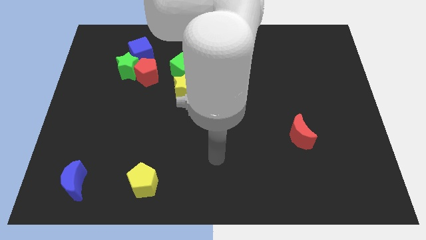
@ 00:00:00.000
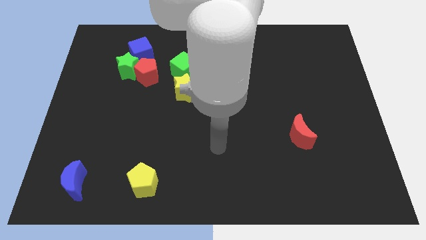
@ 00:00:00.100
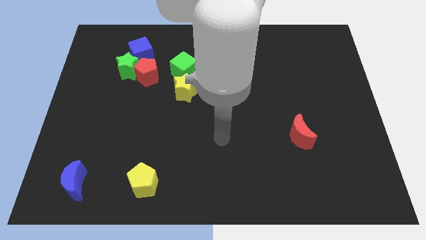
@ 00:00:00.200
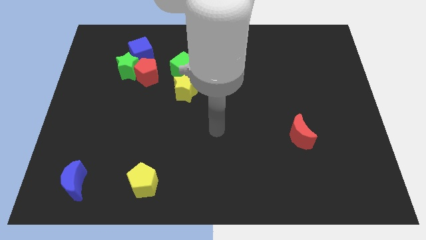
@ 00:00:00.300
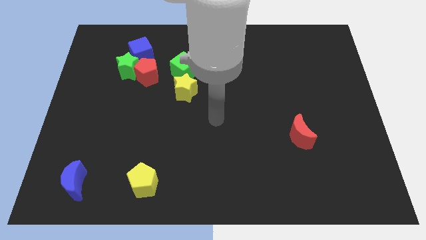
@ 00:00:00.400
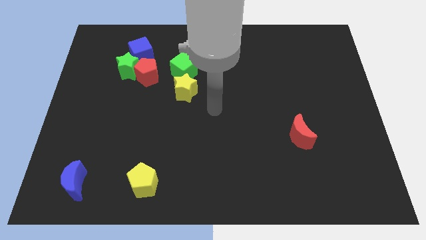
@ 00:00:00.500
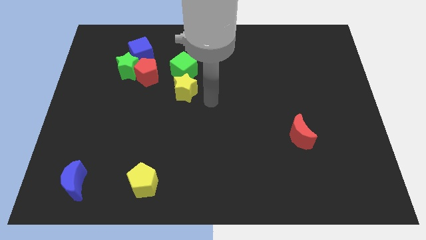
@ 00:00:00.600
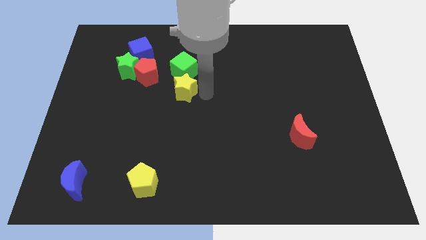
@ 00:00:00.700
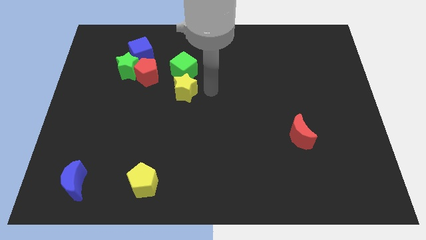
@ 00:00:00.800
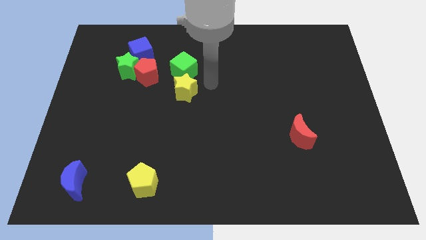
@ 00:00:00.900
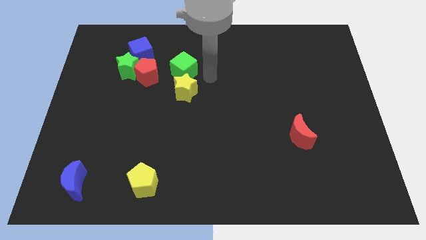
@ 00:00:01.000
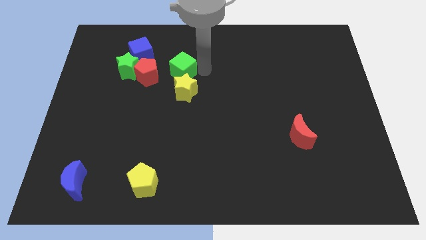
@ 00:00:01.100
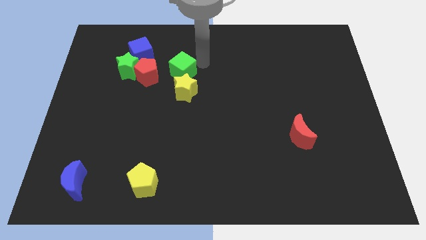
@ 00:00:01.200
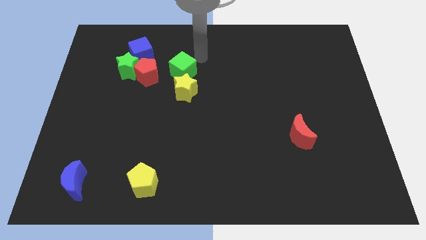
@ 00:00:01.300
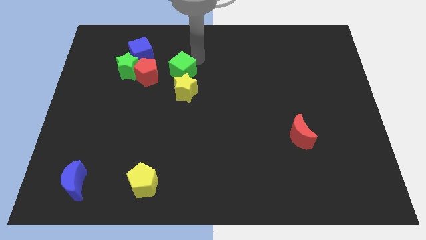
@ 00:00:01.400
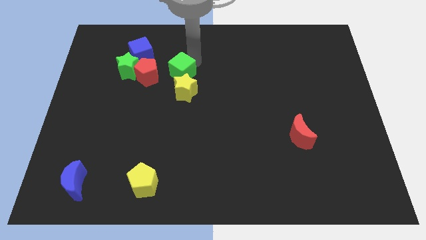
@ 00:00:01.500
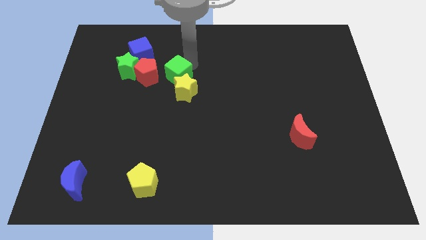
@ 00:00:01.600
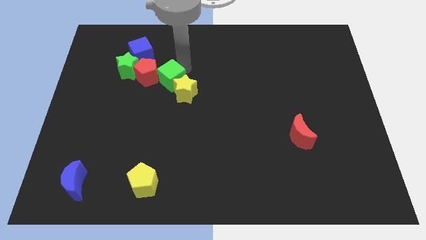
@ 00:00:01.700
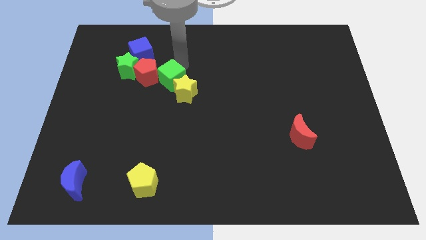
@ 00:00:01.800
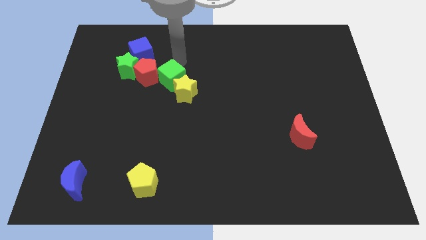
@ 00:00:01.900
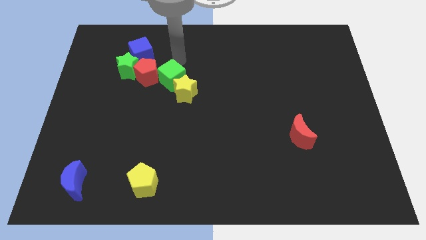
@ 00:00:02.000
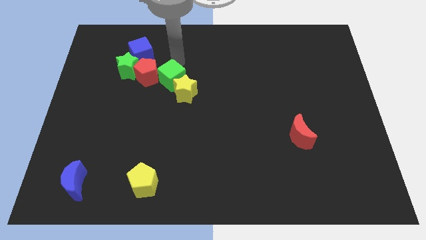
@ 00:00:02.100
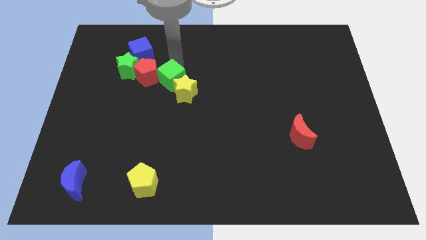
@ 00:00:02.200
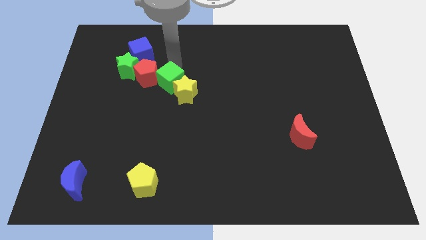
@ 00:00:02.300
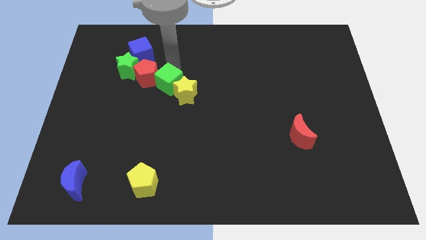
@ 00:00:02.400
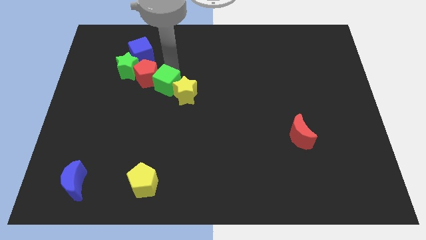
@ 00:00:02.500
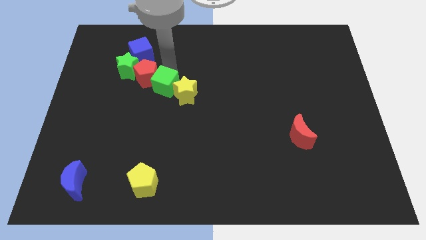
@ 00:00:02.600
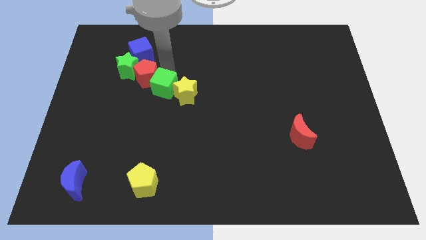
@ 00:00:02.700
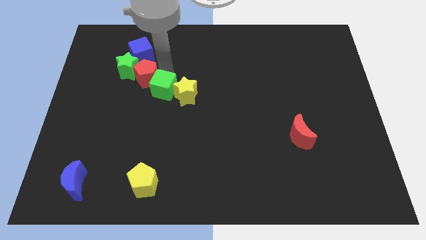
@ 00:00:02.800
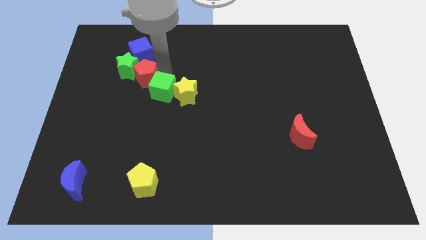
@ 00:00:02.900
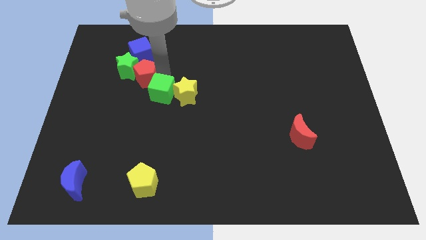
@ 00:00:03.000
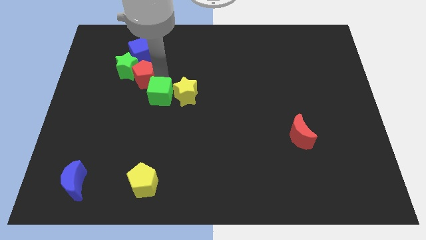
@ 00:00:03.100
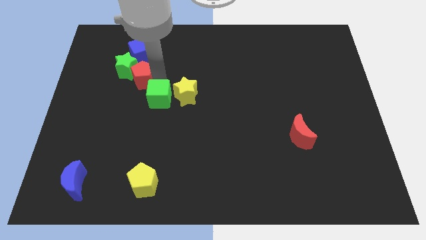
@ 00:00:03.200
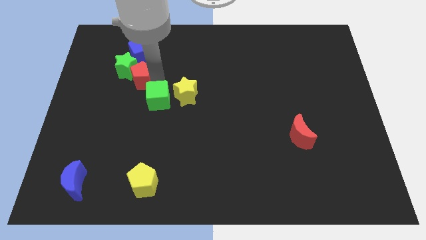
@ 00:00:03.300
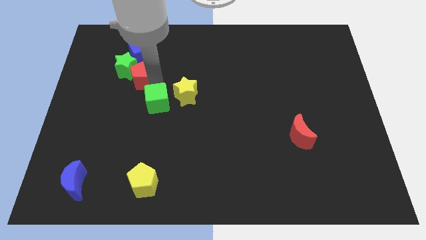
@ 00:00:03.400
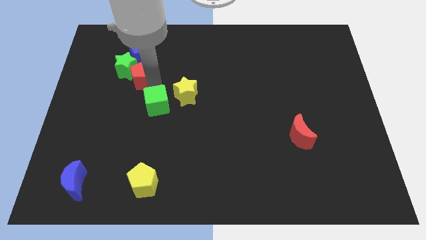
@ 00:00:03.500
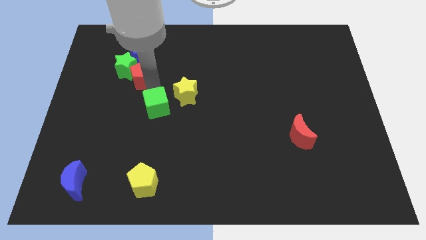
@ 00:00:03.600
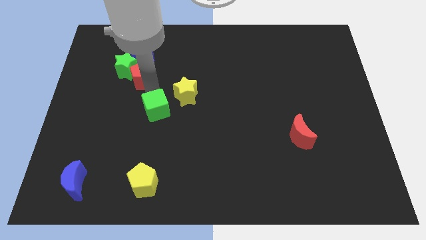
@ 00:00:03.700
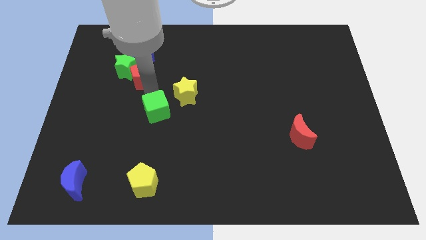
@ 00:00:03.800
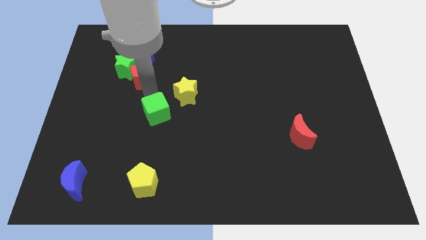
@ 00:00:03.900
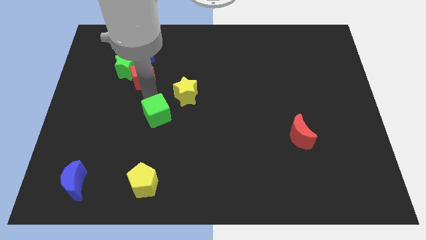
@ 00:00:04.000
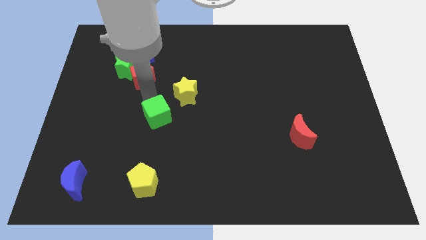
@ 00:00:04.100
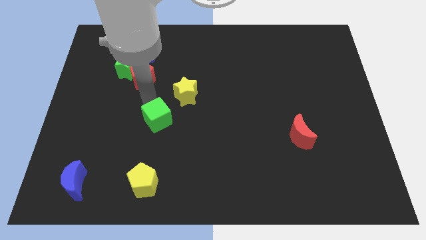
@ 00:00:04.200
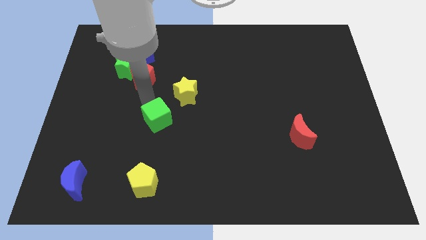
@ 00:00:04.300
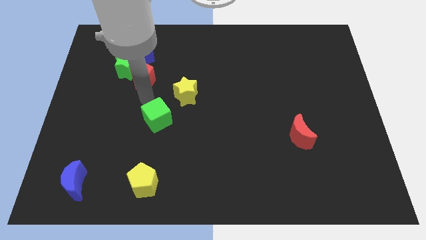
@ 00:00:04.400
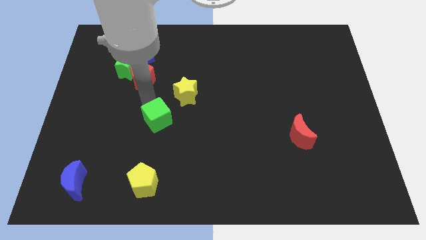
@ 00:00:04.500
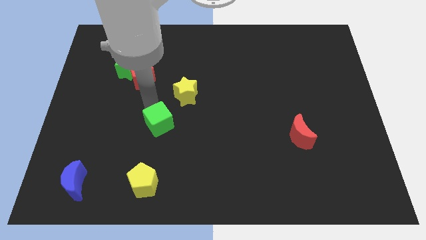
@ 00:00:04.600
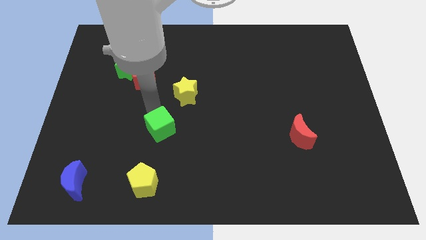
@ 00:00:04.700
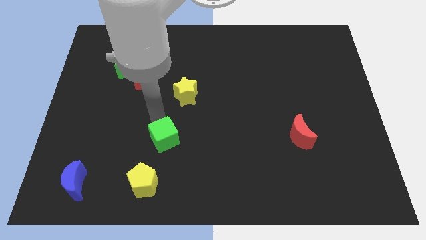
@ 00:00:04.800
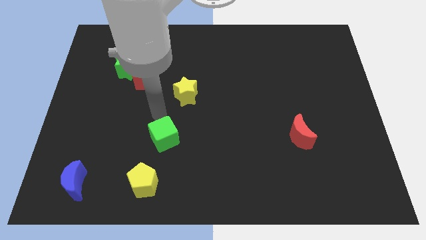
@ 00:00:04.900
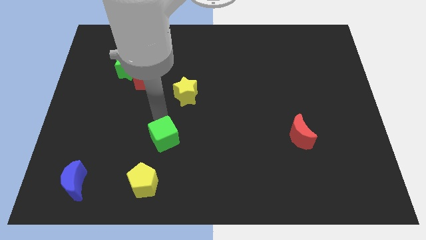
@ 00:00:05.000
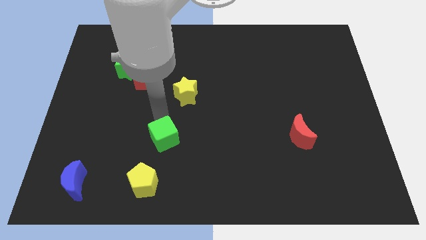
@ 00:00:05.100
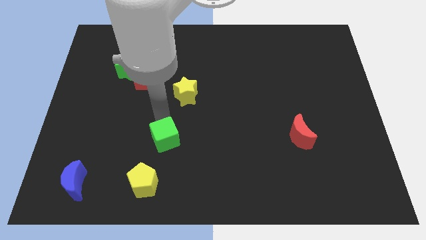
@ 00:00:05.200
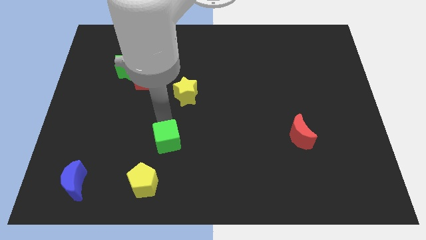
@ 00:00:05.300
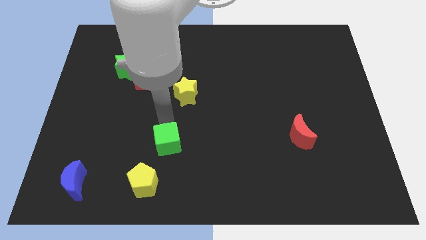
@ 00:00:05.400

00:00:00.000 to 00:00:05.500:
put the green cube to the top right of the yellow pentagon

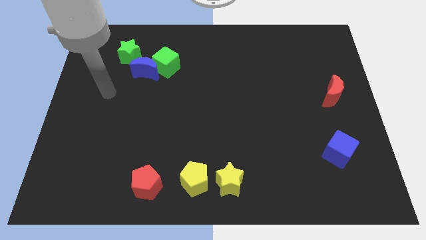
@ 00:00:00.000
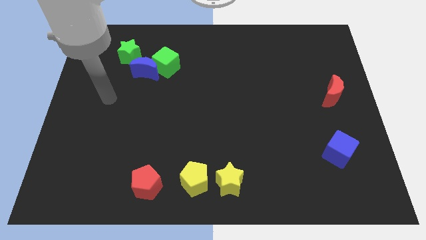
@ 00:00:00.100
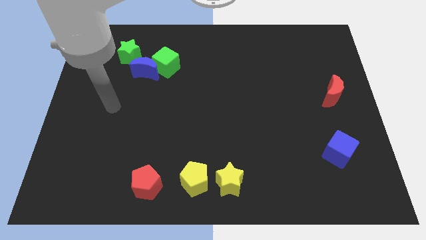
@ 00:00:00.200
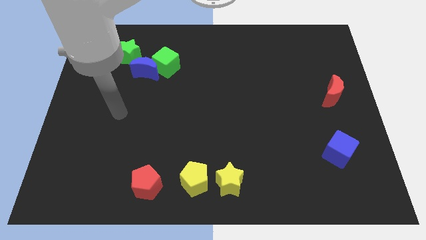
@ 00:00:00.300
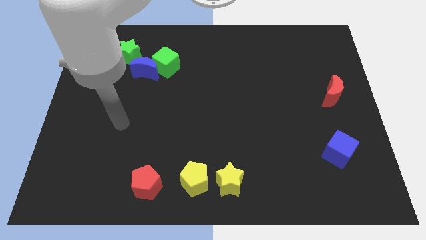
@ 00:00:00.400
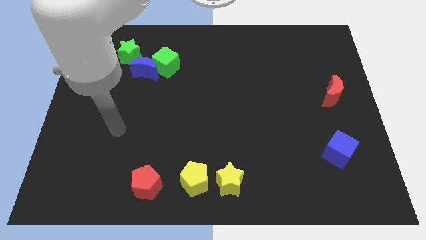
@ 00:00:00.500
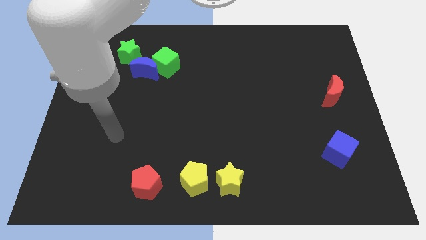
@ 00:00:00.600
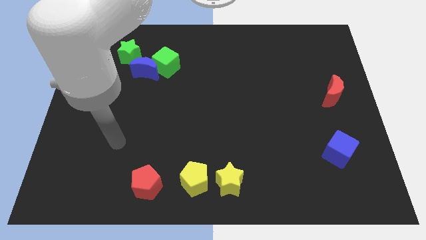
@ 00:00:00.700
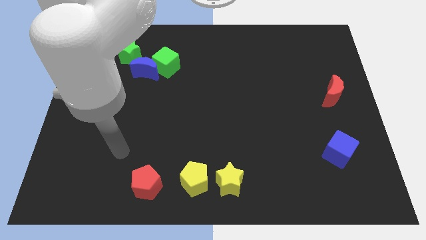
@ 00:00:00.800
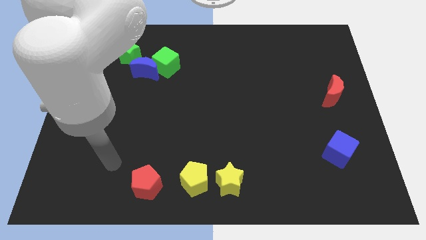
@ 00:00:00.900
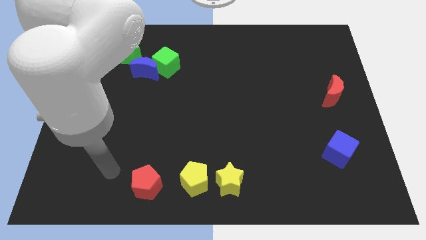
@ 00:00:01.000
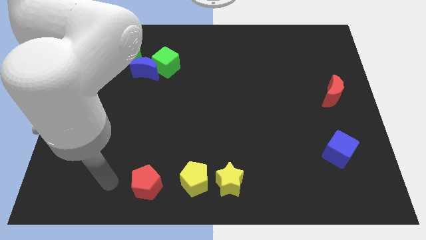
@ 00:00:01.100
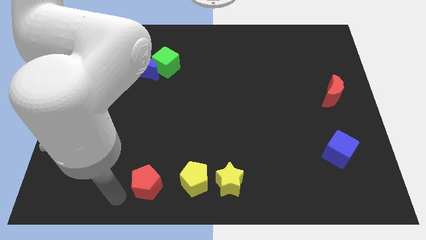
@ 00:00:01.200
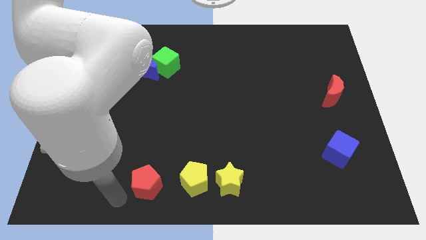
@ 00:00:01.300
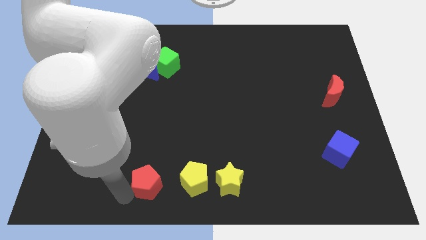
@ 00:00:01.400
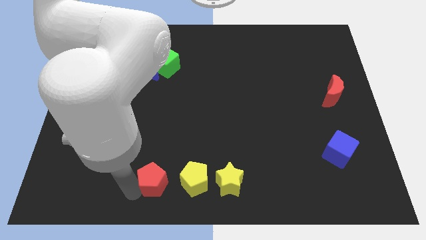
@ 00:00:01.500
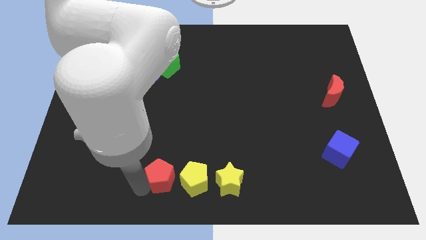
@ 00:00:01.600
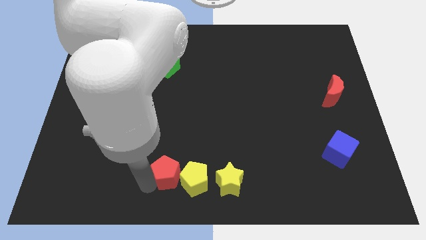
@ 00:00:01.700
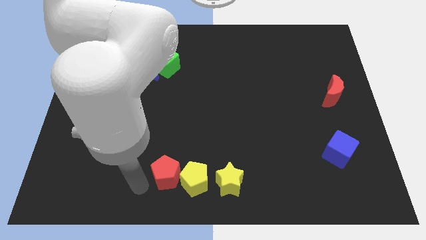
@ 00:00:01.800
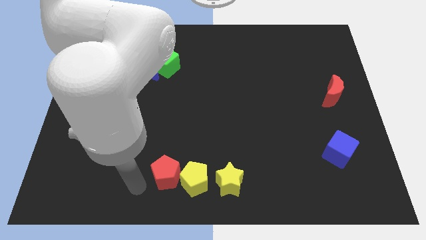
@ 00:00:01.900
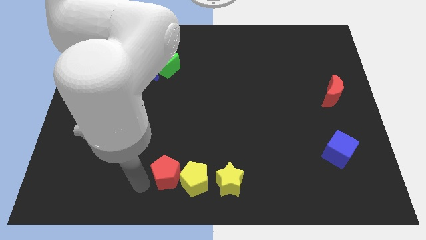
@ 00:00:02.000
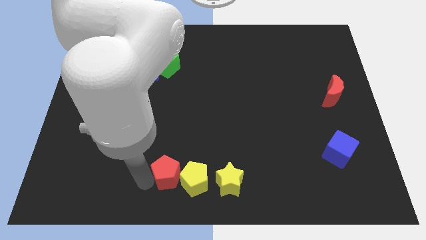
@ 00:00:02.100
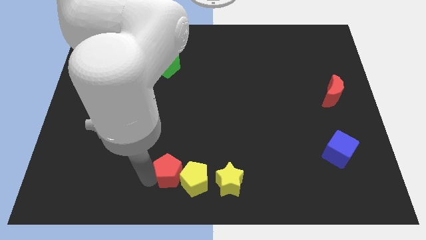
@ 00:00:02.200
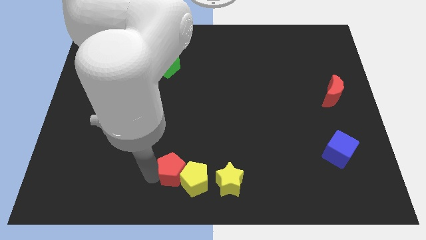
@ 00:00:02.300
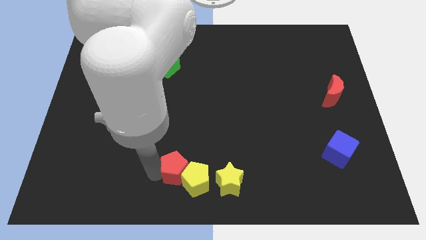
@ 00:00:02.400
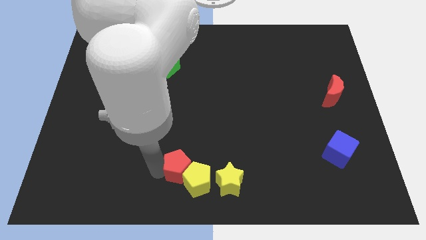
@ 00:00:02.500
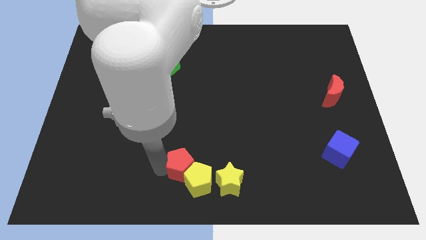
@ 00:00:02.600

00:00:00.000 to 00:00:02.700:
push the red pentagon to the top left of the yellow star
